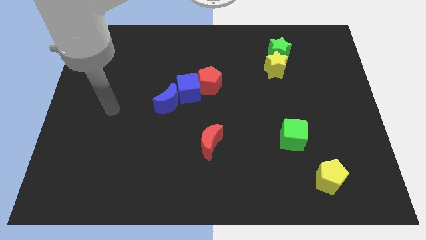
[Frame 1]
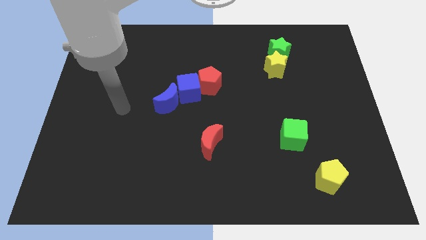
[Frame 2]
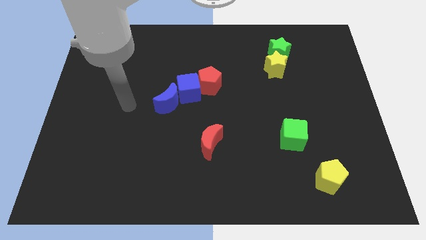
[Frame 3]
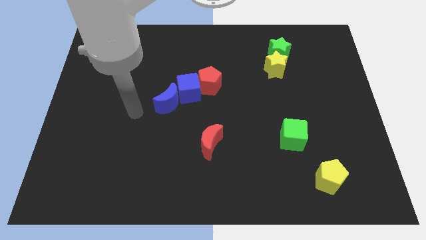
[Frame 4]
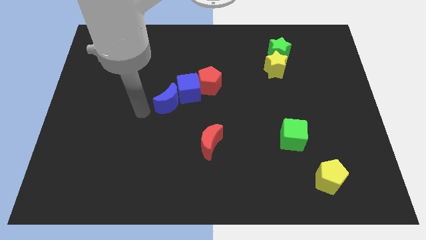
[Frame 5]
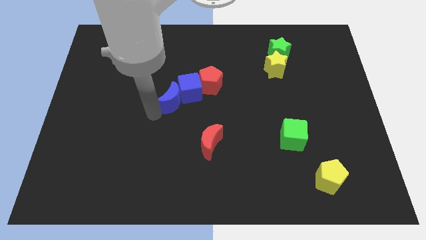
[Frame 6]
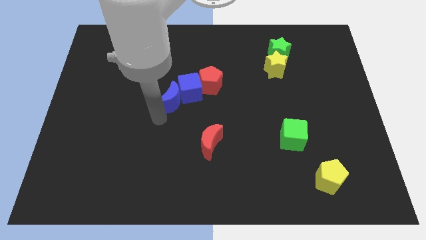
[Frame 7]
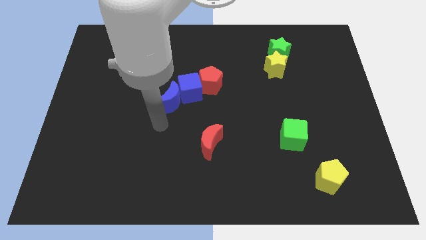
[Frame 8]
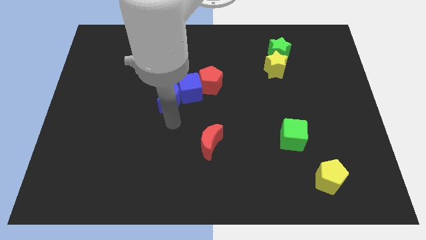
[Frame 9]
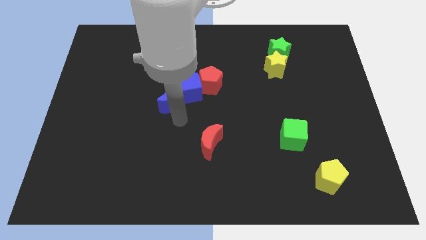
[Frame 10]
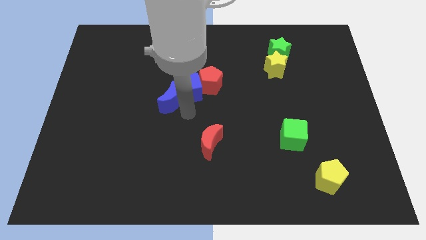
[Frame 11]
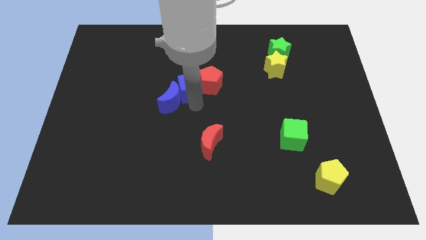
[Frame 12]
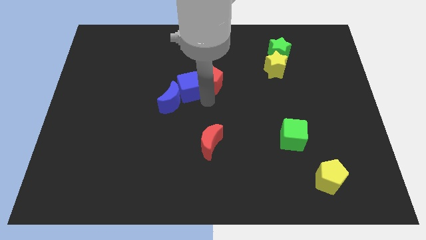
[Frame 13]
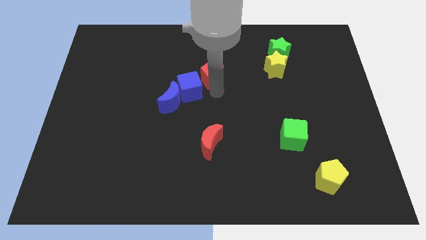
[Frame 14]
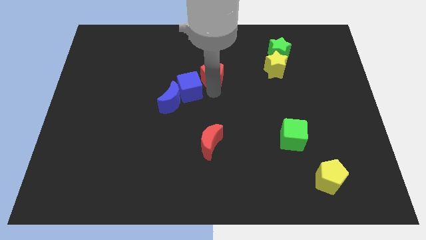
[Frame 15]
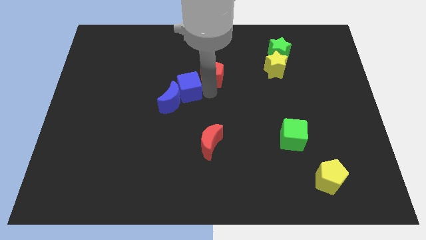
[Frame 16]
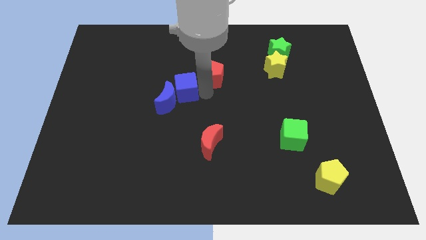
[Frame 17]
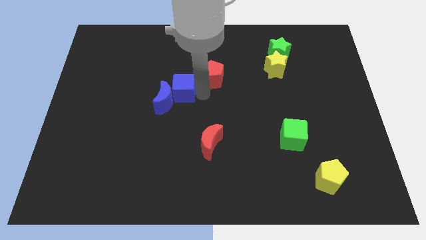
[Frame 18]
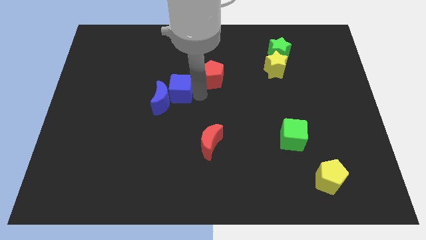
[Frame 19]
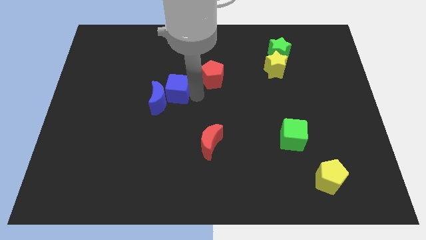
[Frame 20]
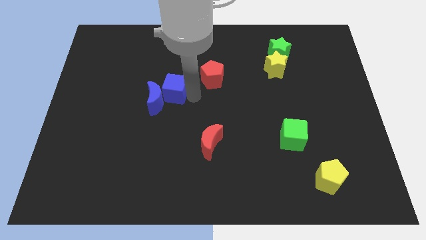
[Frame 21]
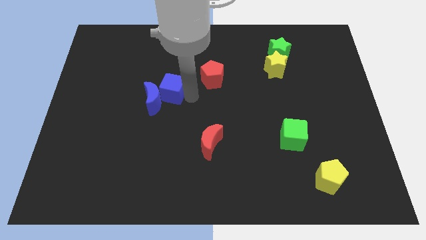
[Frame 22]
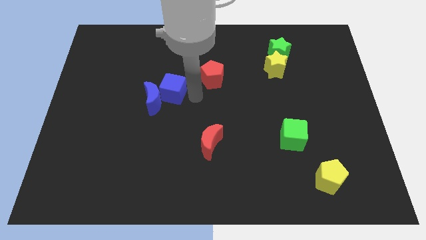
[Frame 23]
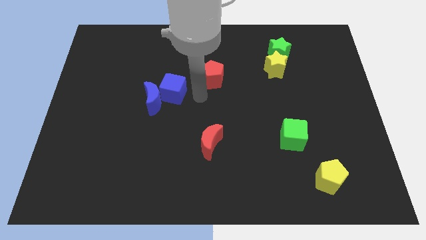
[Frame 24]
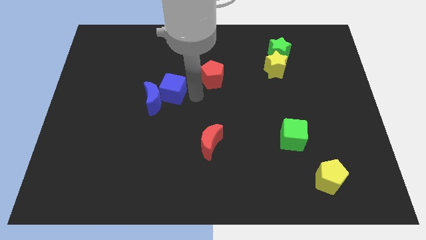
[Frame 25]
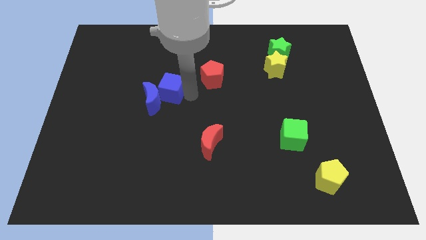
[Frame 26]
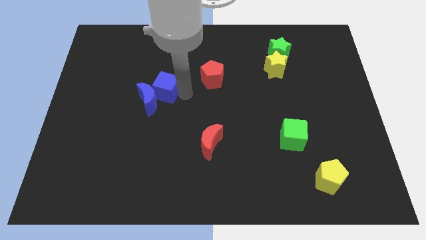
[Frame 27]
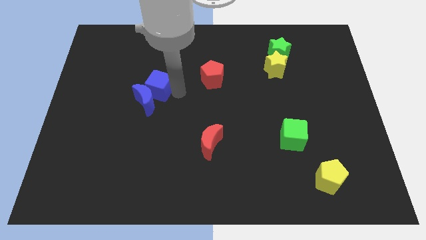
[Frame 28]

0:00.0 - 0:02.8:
slightly slide the blue cube left

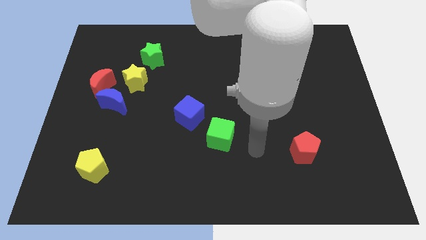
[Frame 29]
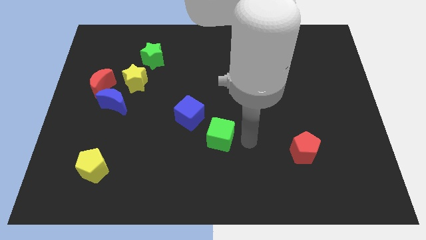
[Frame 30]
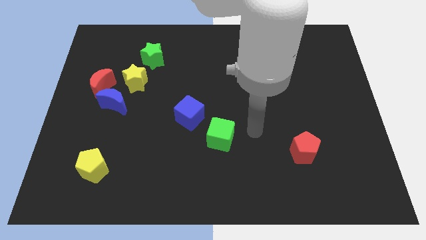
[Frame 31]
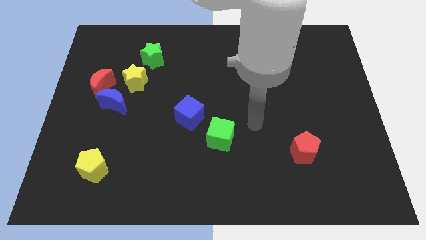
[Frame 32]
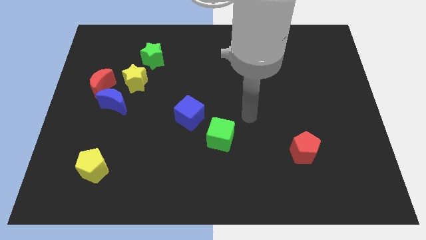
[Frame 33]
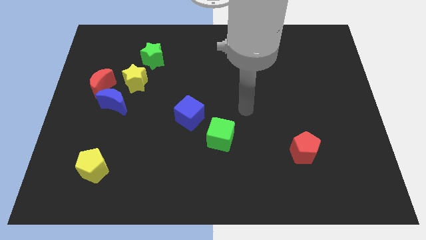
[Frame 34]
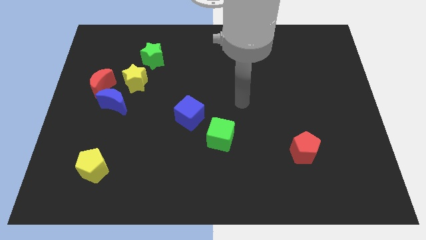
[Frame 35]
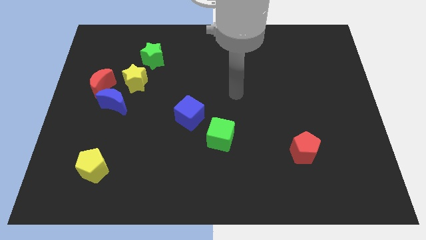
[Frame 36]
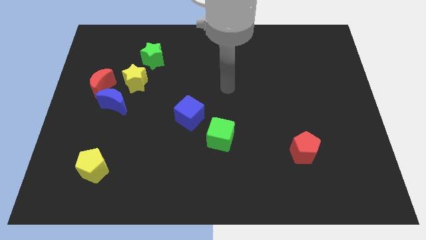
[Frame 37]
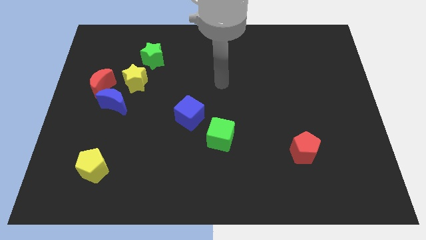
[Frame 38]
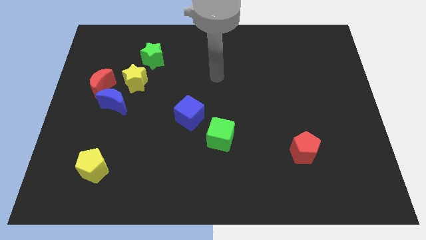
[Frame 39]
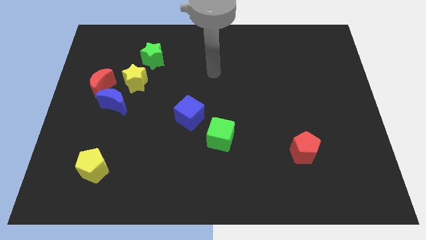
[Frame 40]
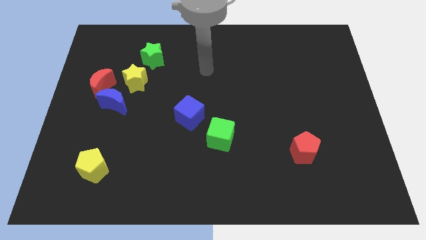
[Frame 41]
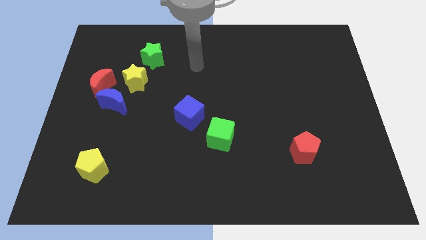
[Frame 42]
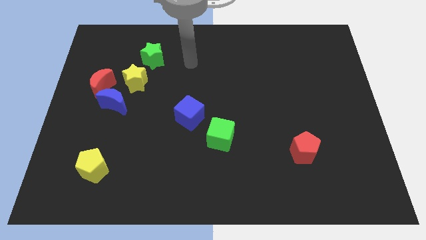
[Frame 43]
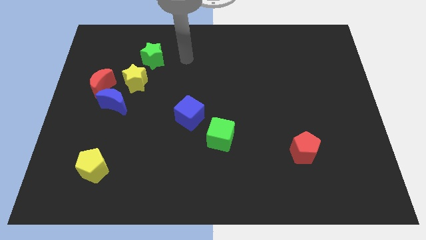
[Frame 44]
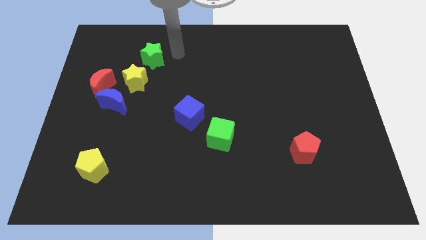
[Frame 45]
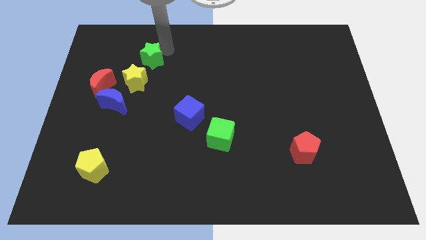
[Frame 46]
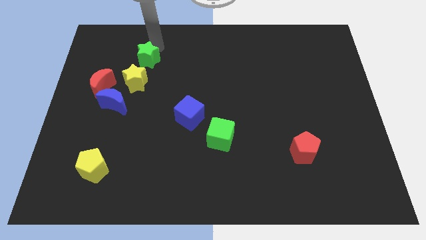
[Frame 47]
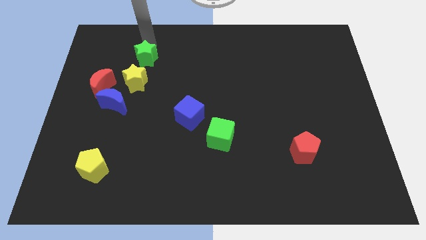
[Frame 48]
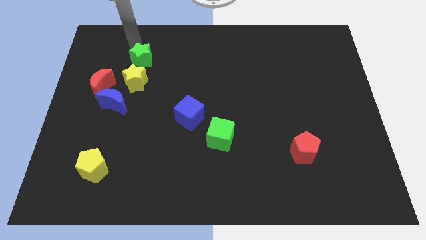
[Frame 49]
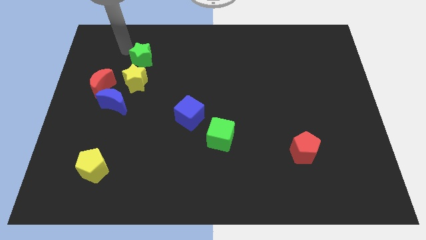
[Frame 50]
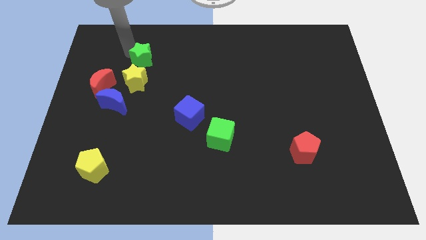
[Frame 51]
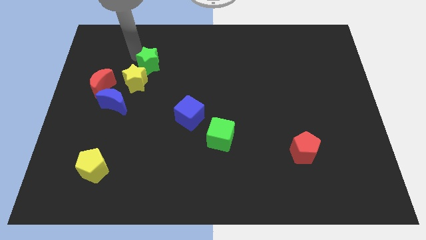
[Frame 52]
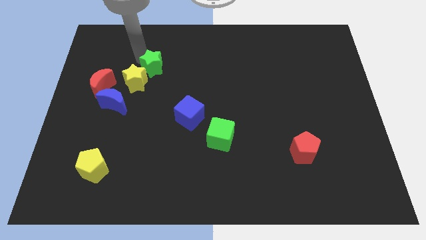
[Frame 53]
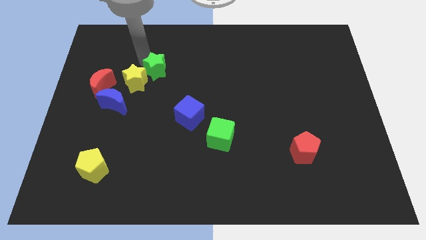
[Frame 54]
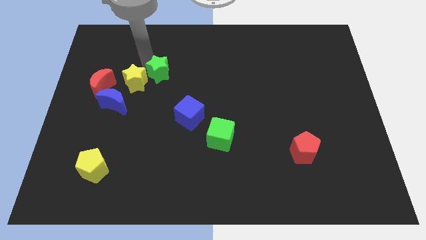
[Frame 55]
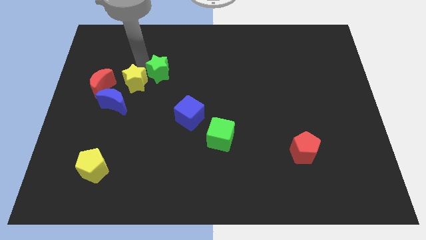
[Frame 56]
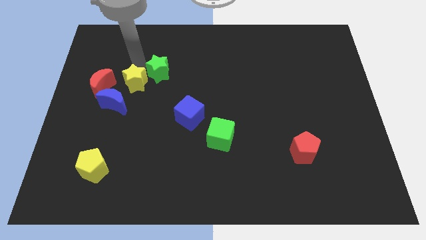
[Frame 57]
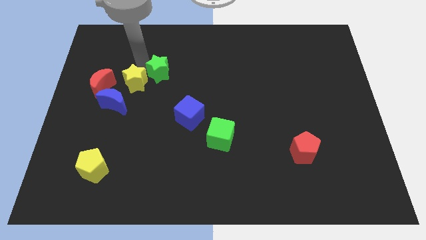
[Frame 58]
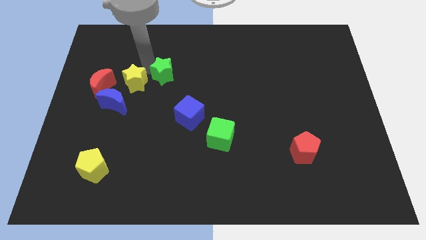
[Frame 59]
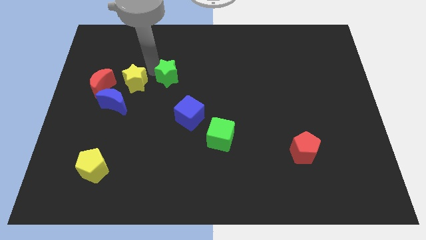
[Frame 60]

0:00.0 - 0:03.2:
move the green star downwards and right diagonally a bit

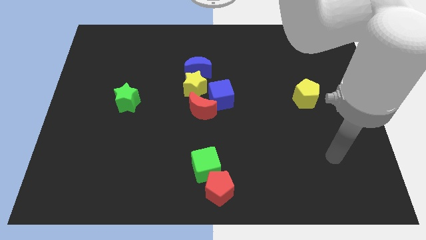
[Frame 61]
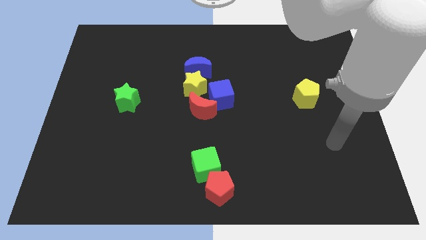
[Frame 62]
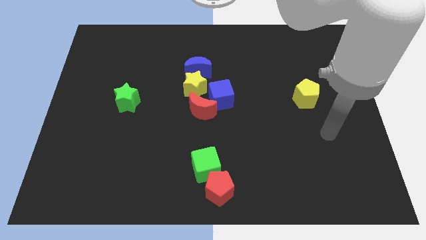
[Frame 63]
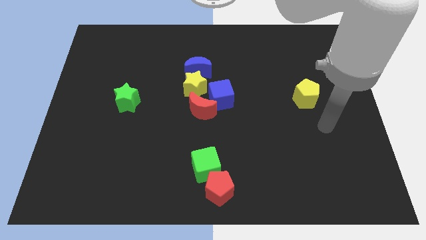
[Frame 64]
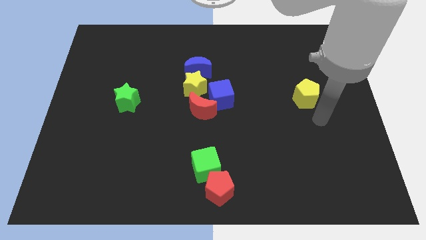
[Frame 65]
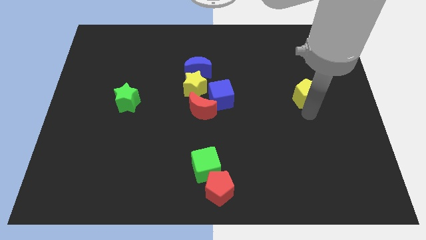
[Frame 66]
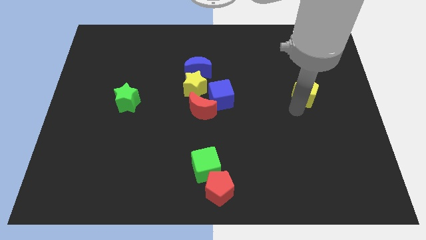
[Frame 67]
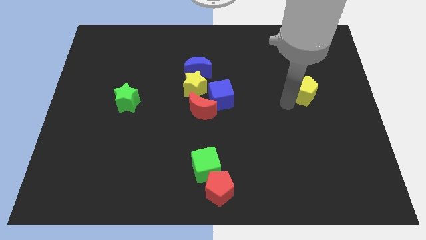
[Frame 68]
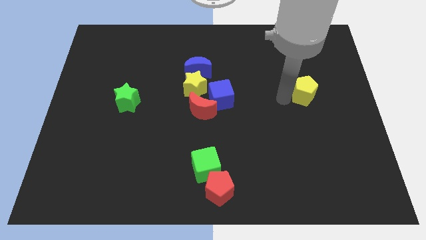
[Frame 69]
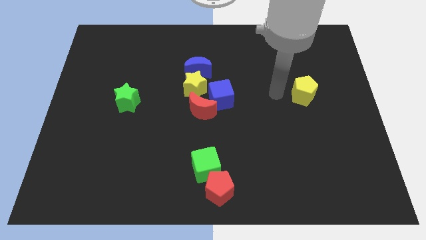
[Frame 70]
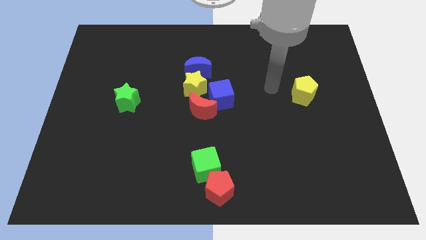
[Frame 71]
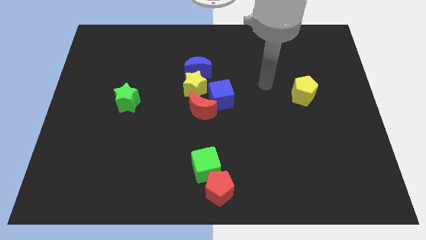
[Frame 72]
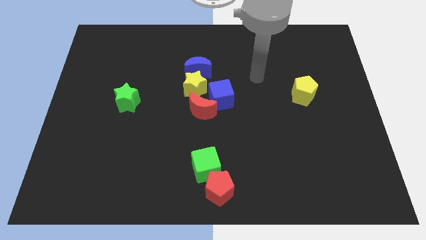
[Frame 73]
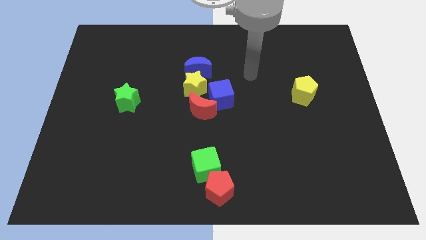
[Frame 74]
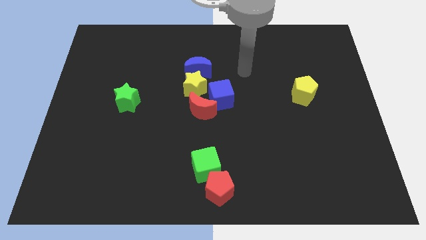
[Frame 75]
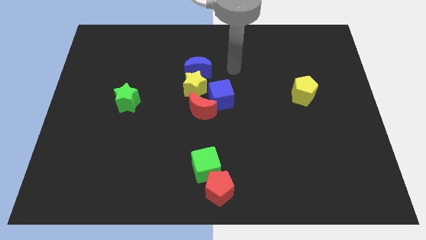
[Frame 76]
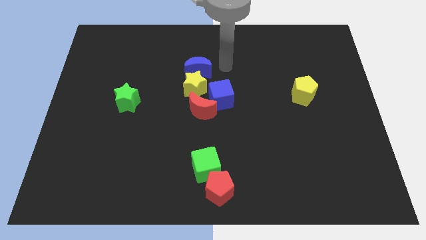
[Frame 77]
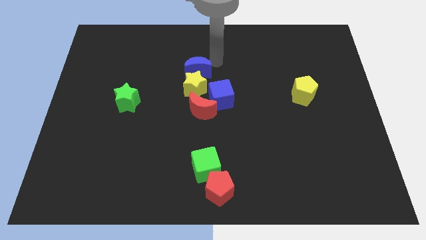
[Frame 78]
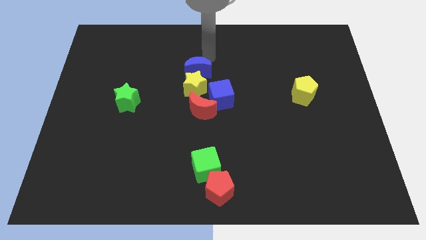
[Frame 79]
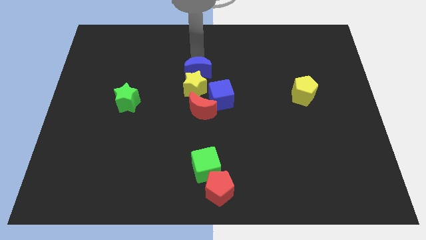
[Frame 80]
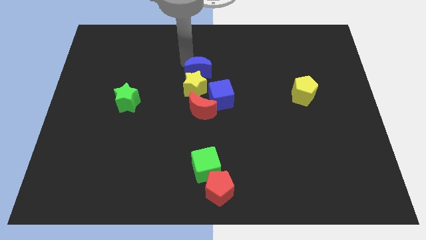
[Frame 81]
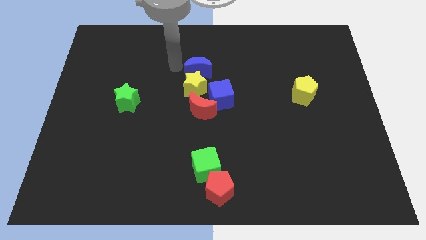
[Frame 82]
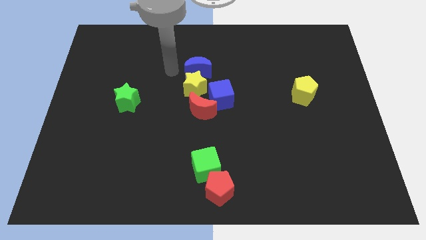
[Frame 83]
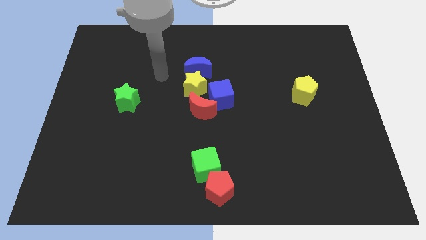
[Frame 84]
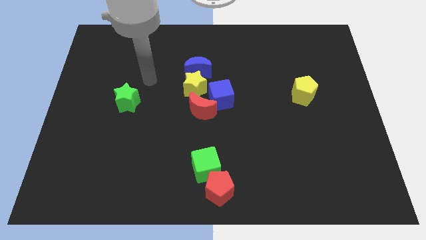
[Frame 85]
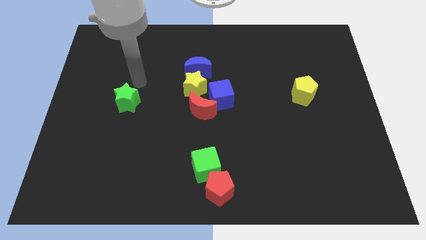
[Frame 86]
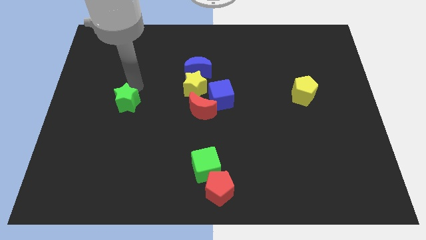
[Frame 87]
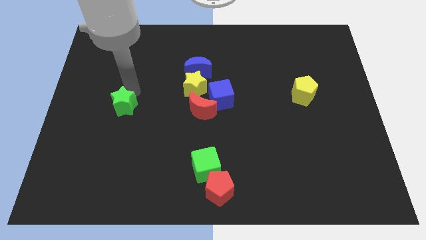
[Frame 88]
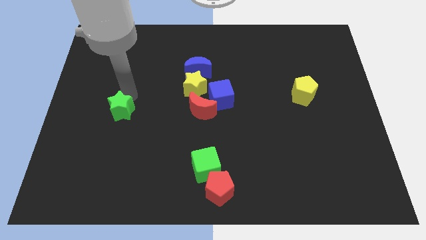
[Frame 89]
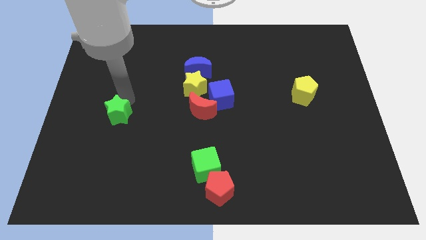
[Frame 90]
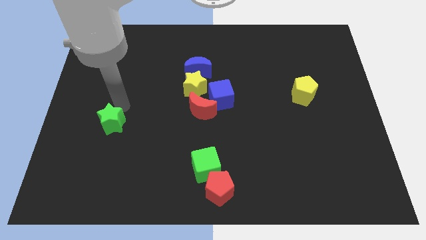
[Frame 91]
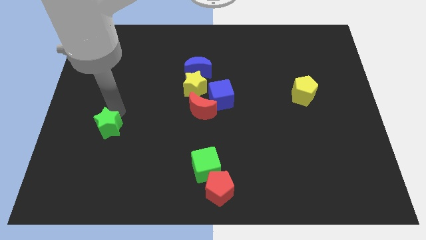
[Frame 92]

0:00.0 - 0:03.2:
move the green star somewhat downwards
